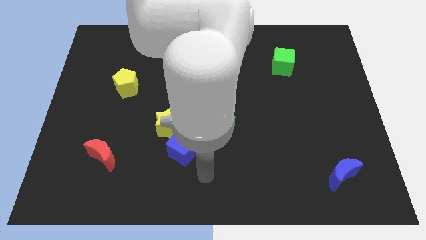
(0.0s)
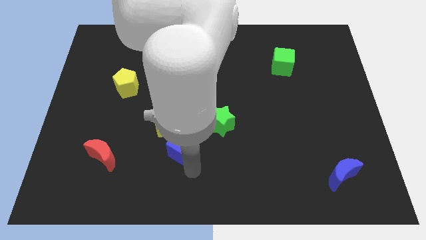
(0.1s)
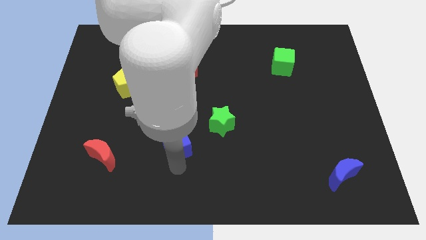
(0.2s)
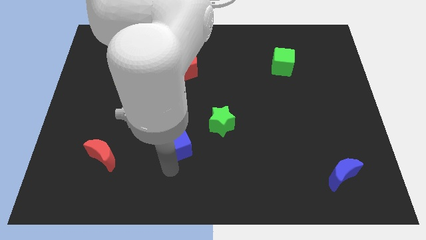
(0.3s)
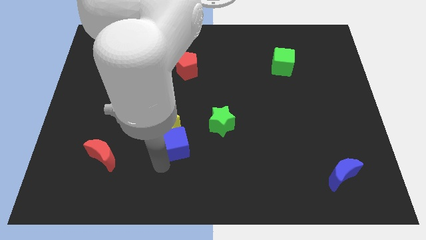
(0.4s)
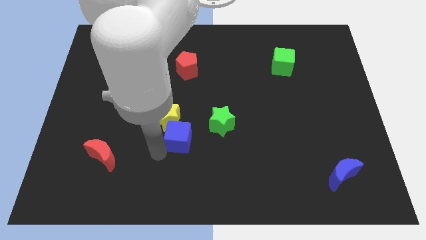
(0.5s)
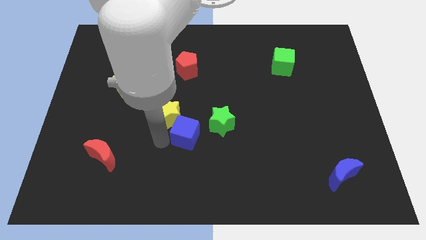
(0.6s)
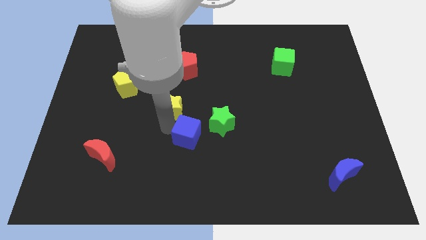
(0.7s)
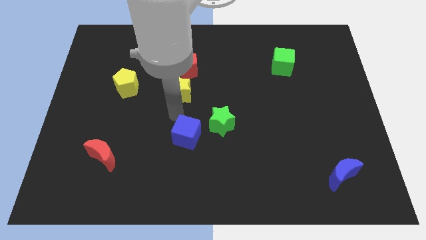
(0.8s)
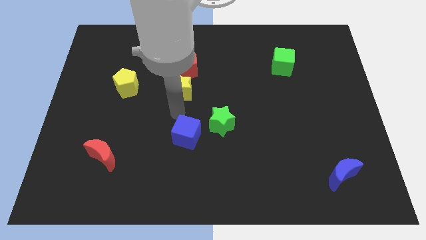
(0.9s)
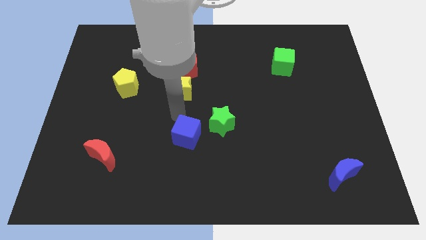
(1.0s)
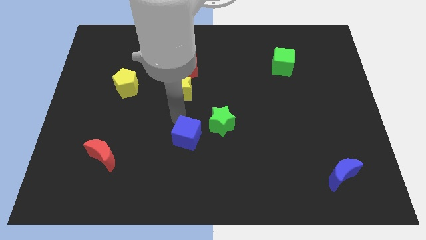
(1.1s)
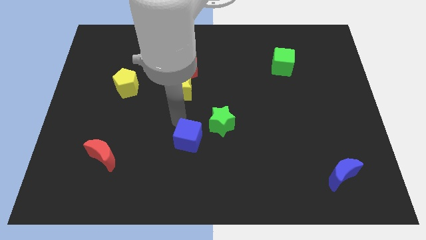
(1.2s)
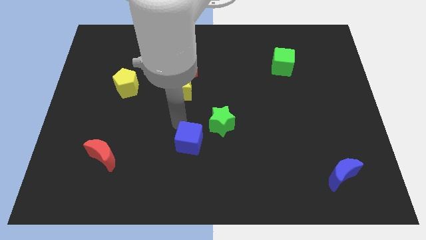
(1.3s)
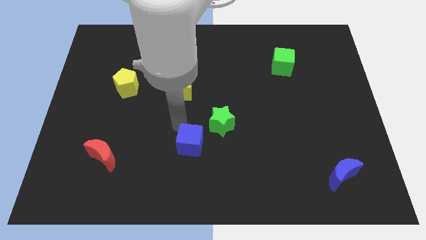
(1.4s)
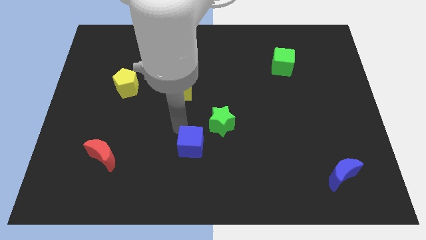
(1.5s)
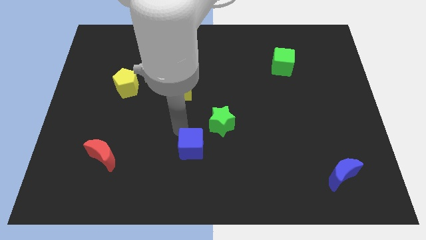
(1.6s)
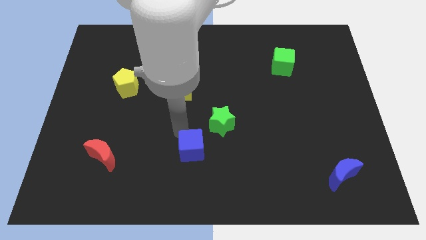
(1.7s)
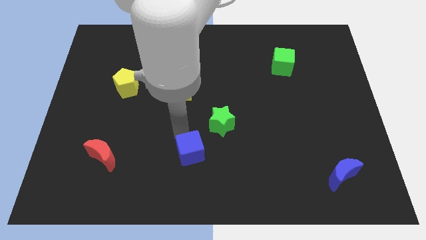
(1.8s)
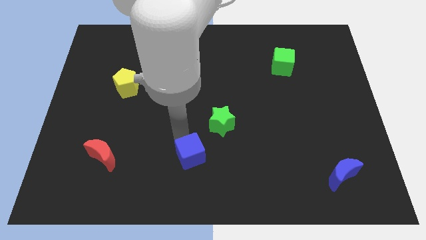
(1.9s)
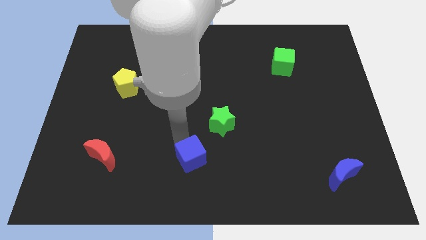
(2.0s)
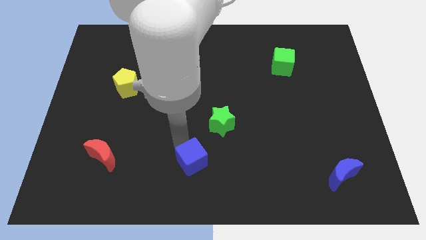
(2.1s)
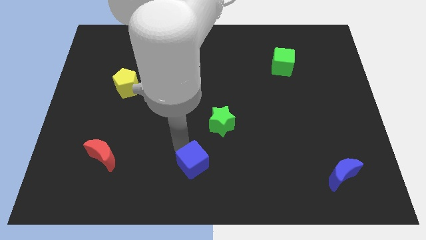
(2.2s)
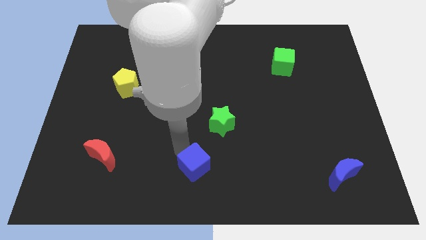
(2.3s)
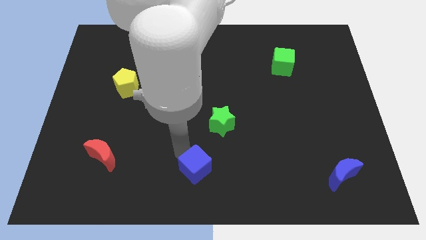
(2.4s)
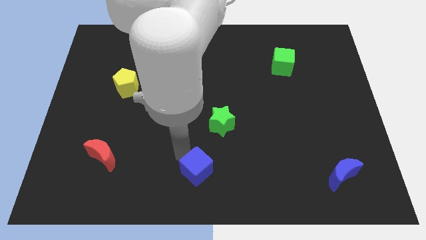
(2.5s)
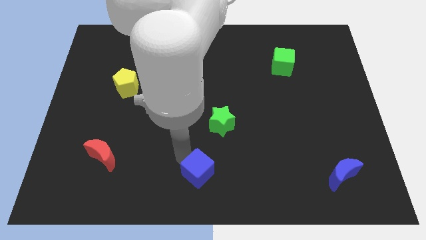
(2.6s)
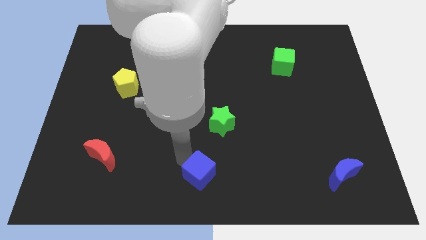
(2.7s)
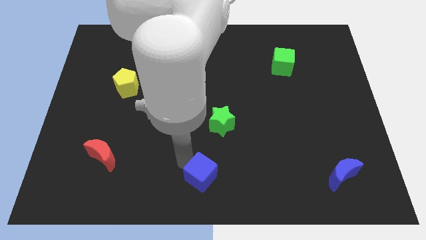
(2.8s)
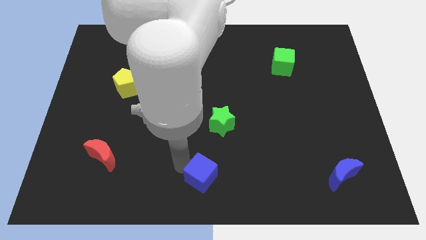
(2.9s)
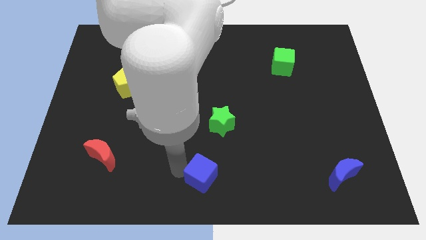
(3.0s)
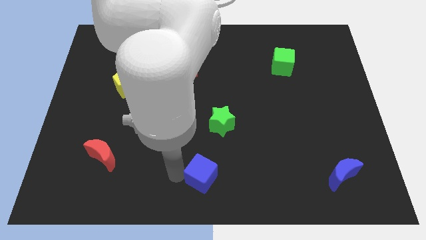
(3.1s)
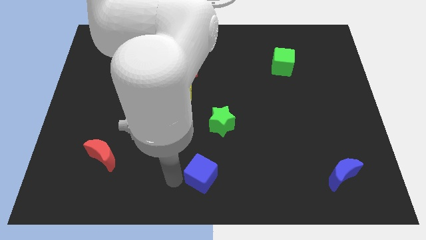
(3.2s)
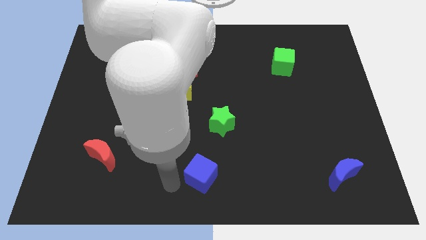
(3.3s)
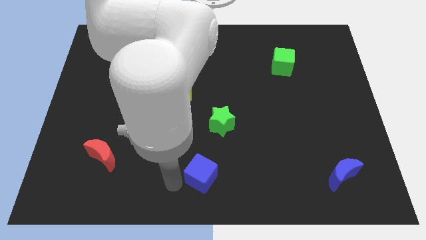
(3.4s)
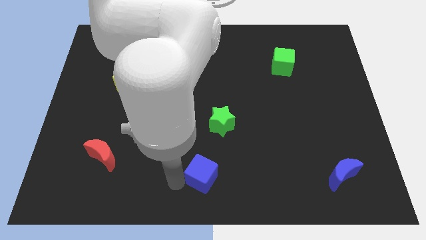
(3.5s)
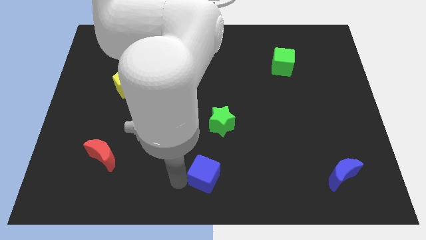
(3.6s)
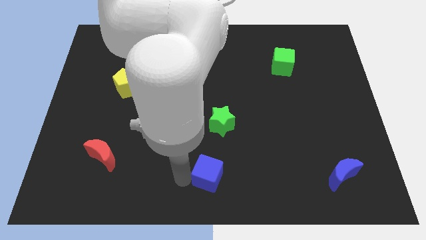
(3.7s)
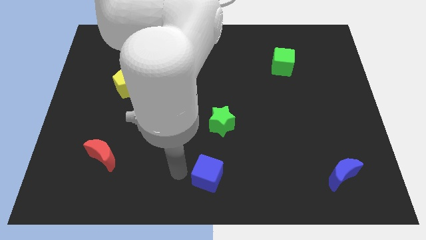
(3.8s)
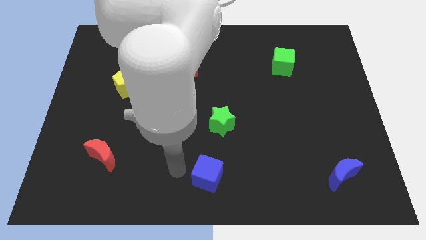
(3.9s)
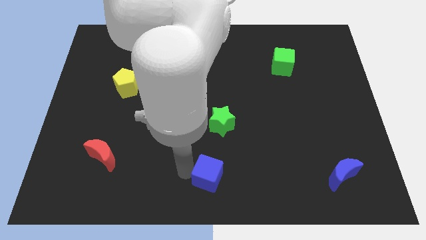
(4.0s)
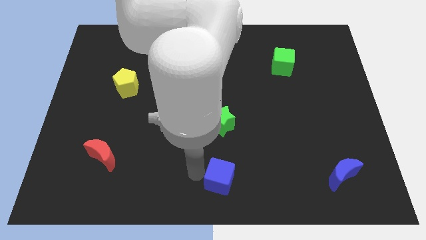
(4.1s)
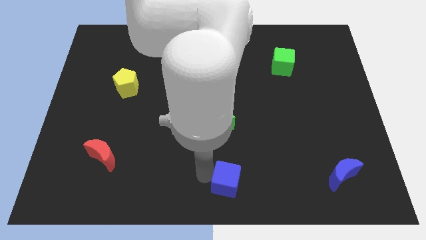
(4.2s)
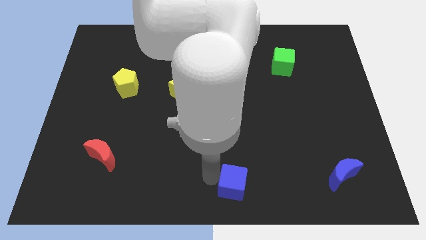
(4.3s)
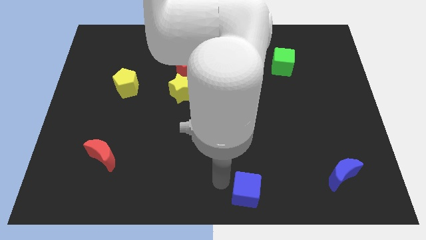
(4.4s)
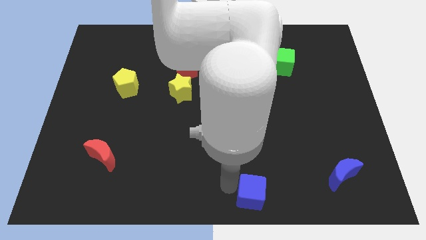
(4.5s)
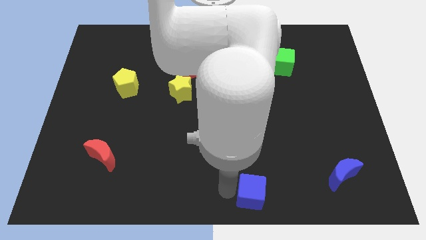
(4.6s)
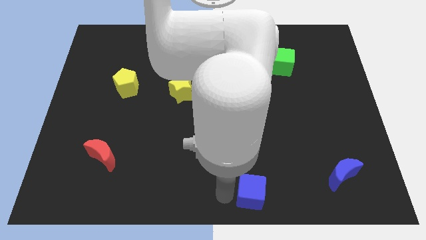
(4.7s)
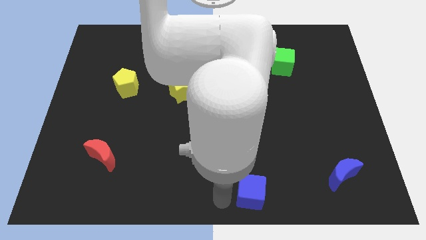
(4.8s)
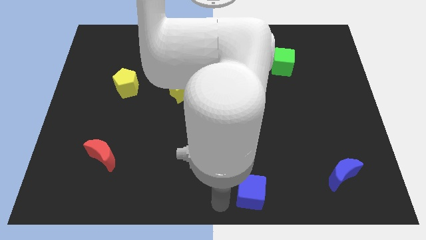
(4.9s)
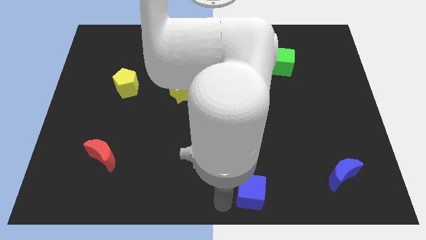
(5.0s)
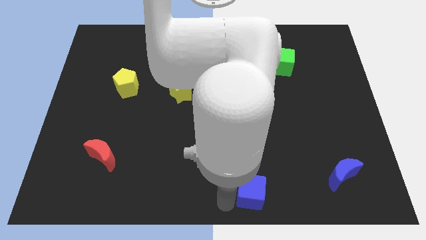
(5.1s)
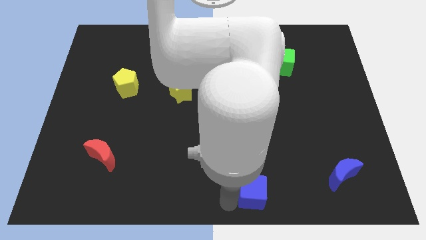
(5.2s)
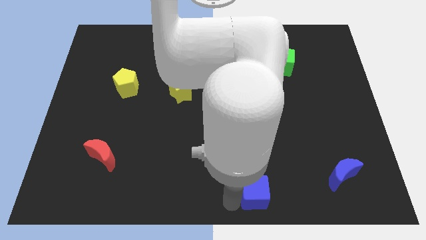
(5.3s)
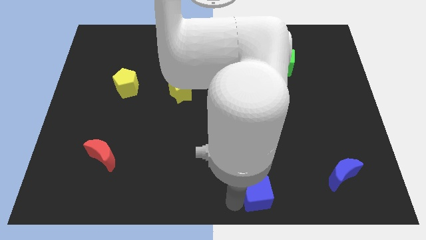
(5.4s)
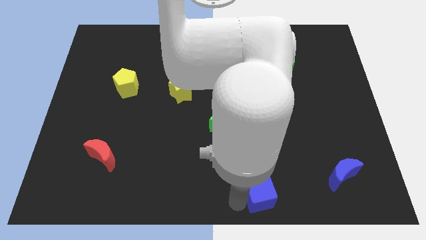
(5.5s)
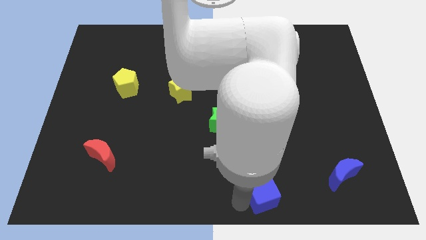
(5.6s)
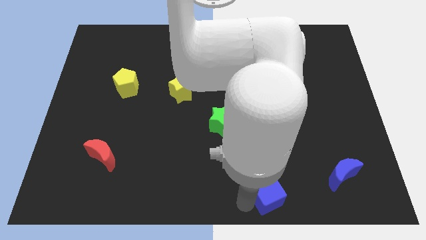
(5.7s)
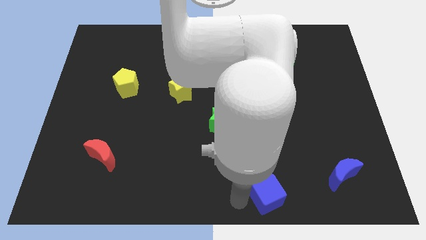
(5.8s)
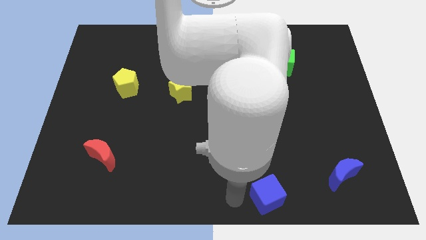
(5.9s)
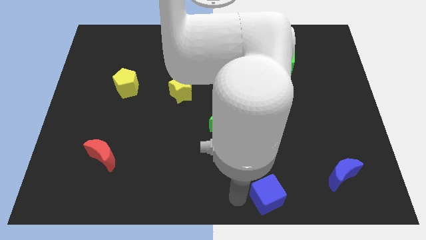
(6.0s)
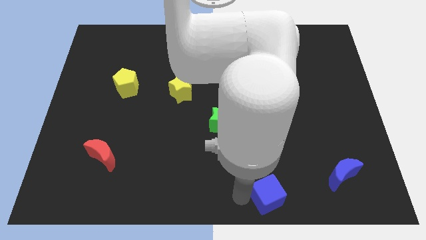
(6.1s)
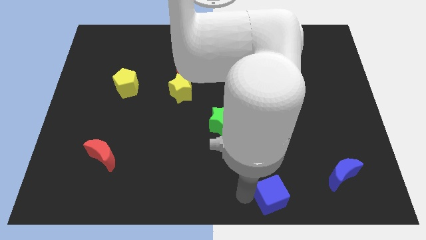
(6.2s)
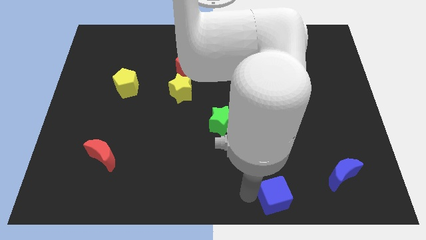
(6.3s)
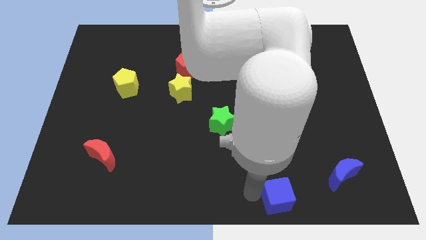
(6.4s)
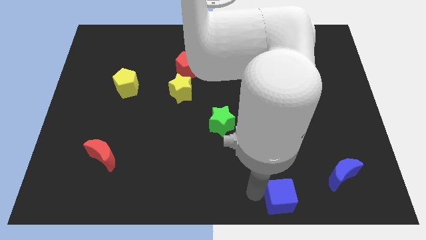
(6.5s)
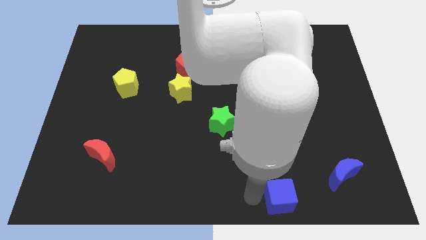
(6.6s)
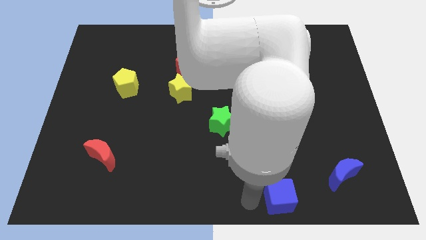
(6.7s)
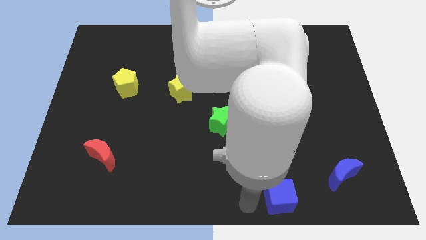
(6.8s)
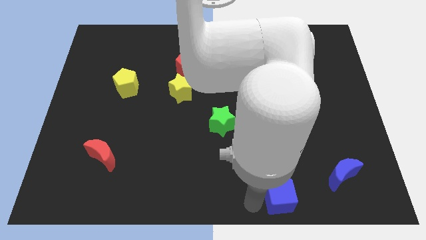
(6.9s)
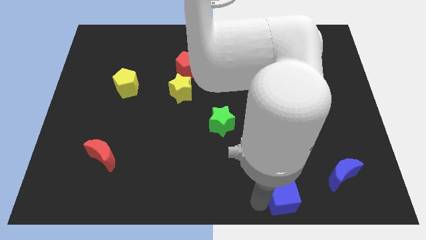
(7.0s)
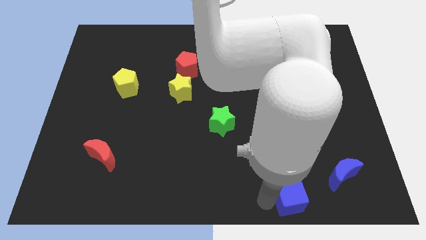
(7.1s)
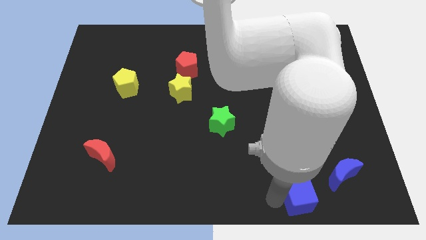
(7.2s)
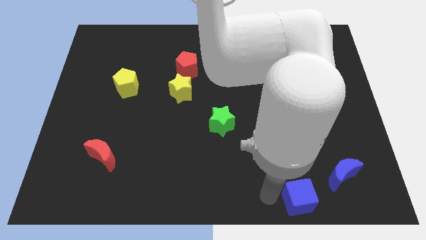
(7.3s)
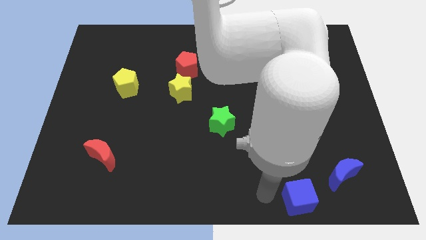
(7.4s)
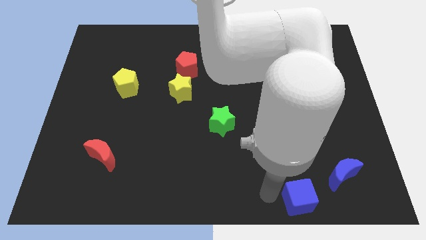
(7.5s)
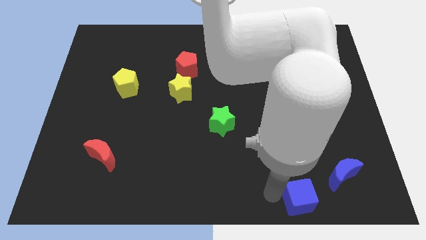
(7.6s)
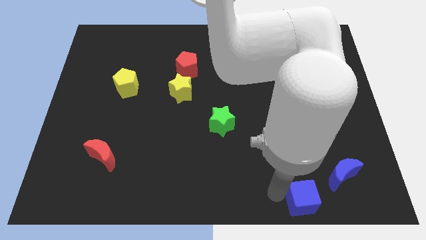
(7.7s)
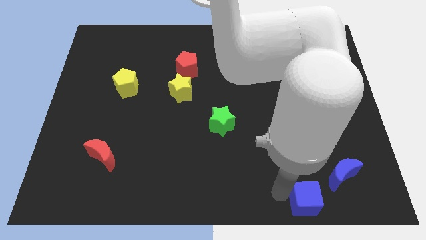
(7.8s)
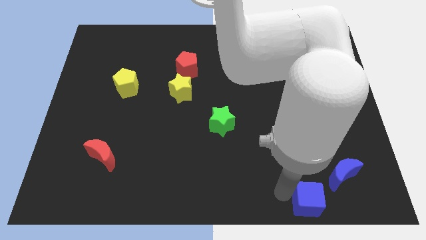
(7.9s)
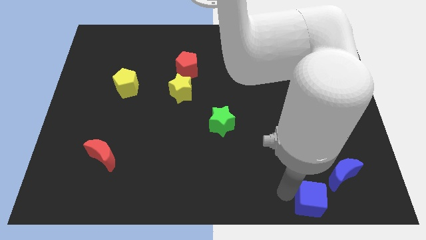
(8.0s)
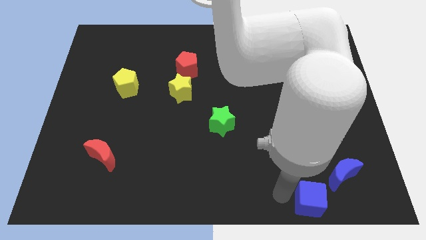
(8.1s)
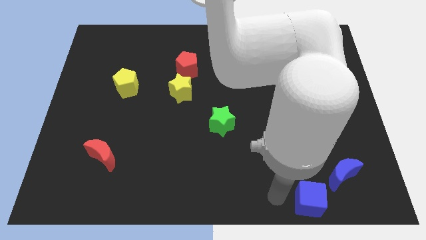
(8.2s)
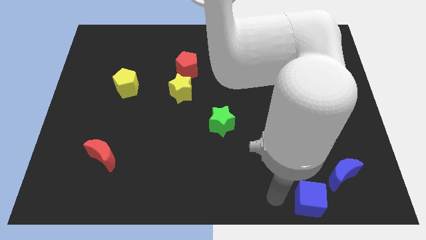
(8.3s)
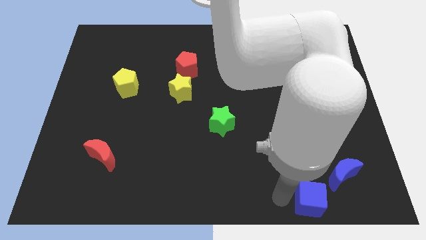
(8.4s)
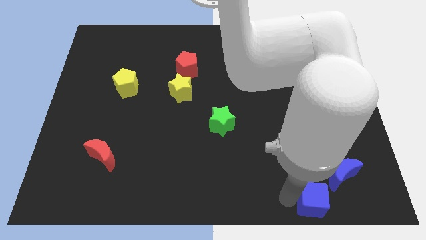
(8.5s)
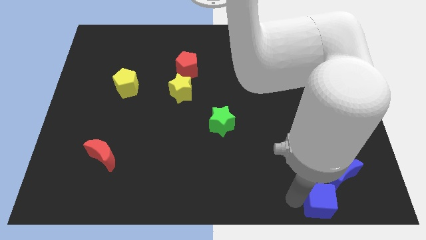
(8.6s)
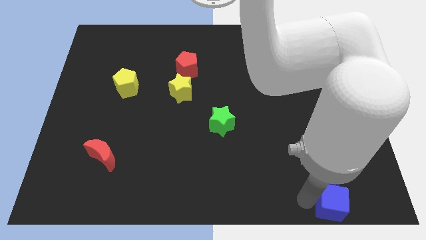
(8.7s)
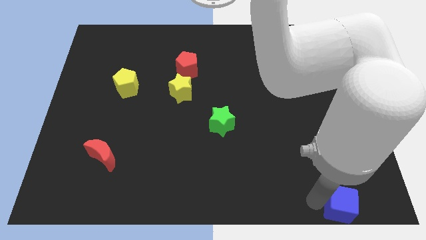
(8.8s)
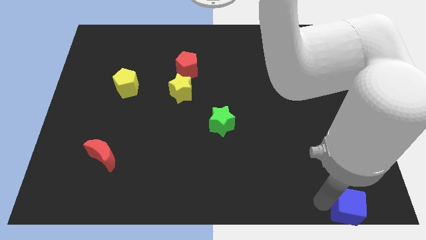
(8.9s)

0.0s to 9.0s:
slide the blue cube to the bottom right
